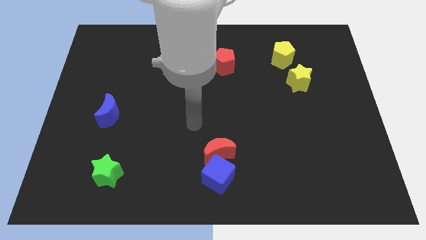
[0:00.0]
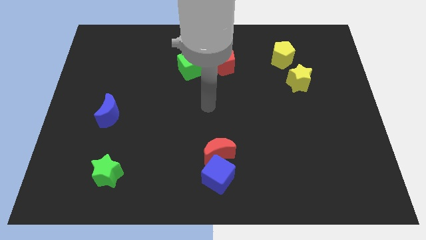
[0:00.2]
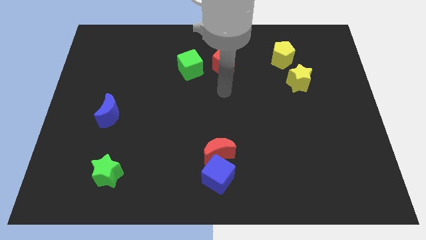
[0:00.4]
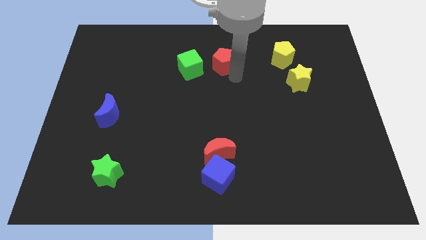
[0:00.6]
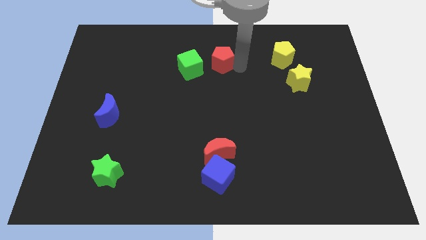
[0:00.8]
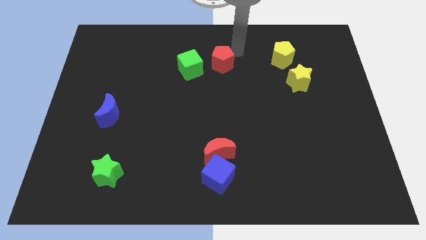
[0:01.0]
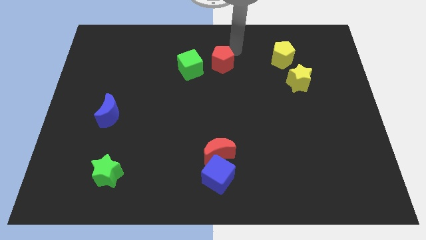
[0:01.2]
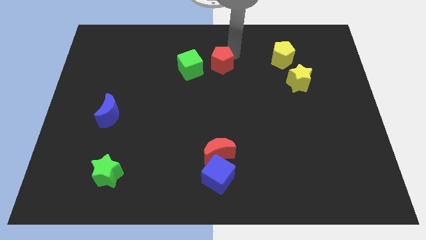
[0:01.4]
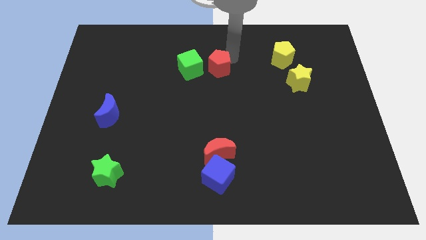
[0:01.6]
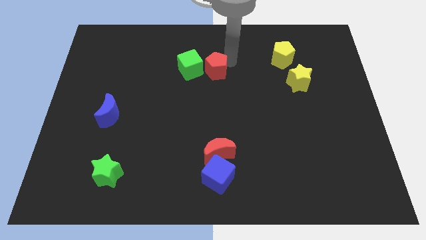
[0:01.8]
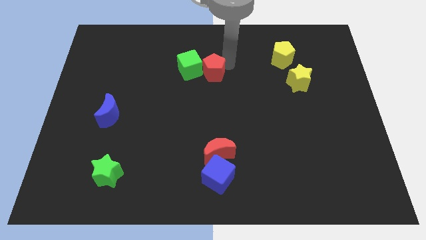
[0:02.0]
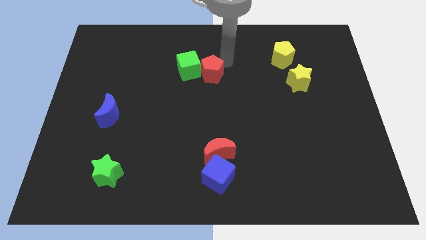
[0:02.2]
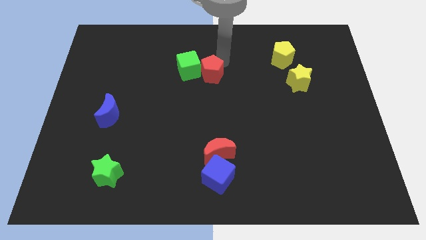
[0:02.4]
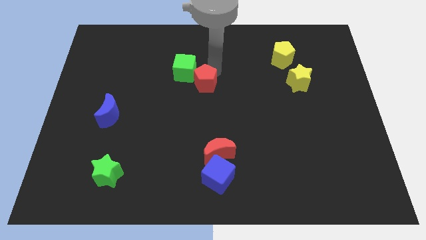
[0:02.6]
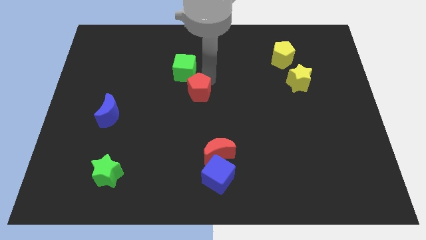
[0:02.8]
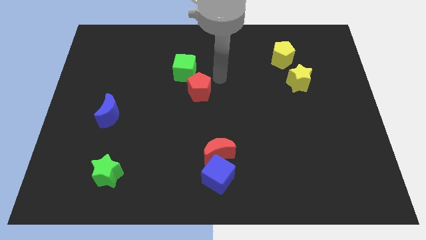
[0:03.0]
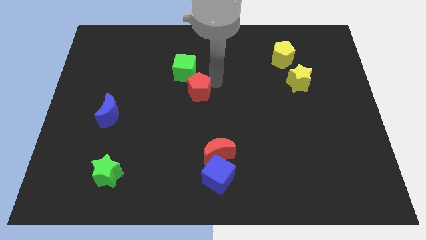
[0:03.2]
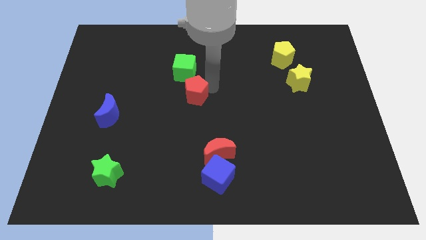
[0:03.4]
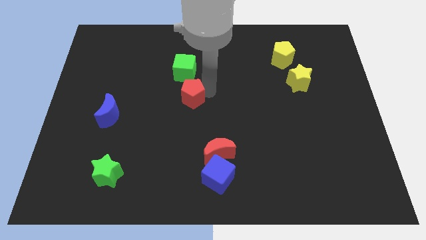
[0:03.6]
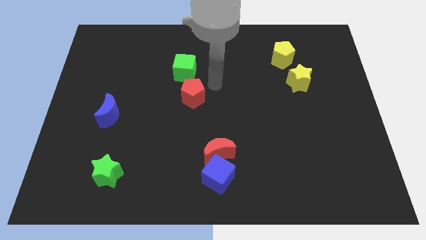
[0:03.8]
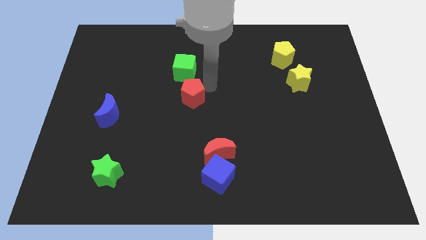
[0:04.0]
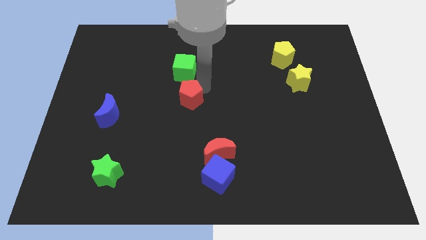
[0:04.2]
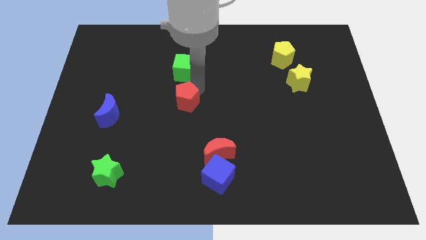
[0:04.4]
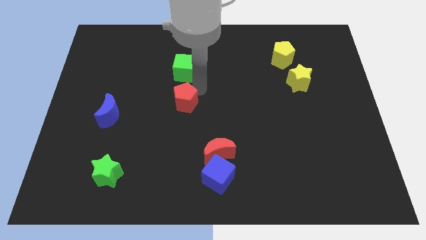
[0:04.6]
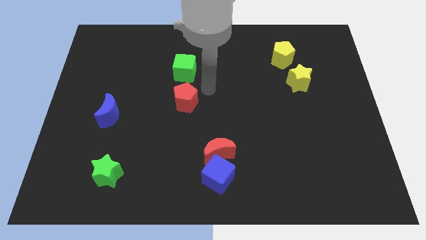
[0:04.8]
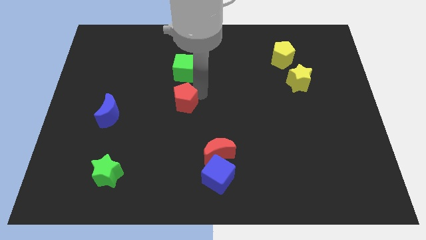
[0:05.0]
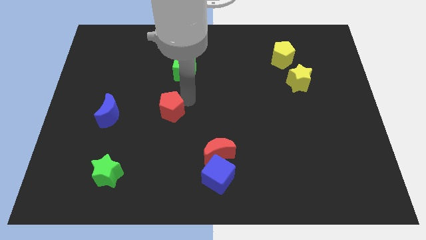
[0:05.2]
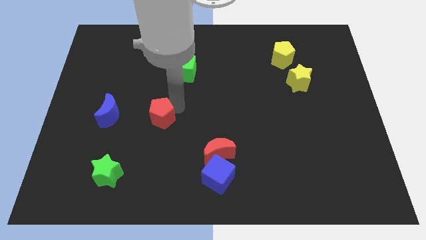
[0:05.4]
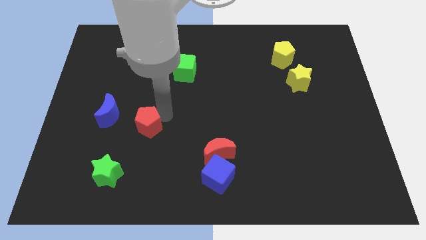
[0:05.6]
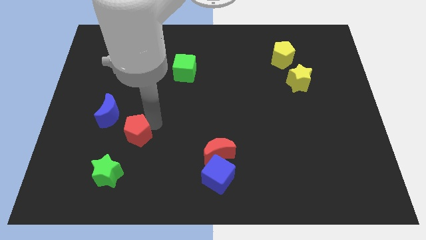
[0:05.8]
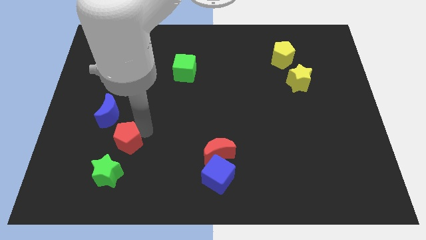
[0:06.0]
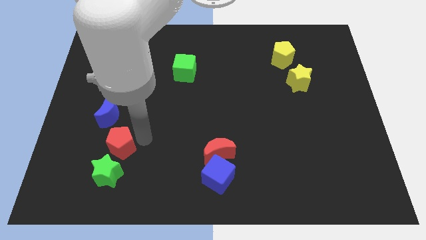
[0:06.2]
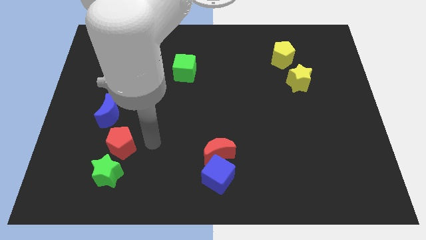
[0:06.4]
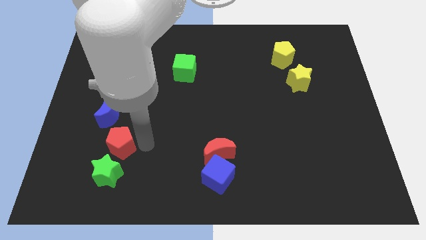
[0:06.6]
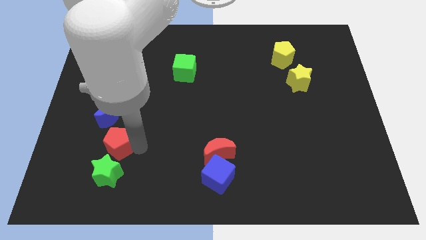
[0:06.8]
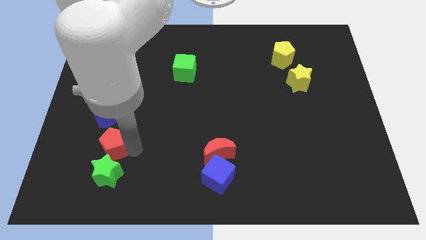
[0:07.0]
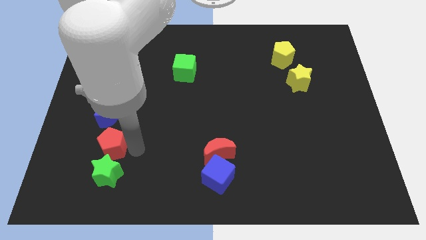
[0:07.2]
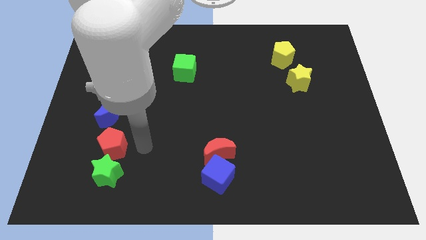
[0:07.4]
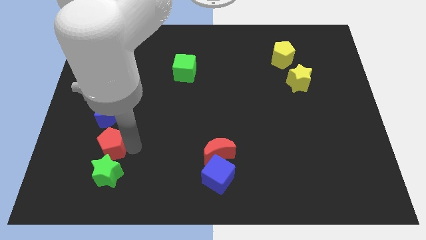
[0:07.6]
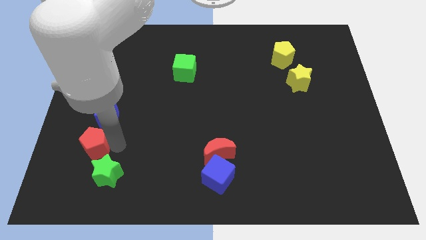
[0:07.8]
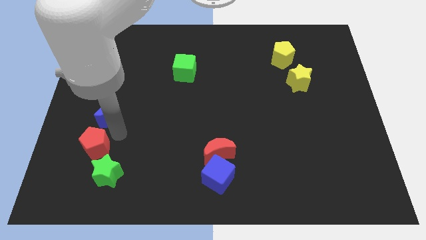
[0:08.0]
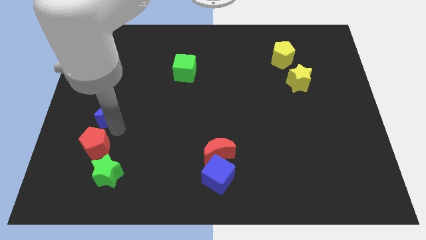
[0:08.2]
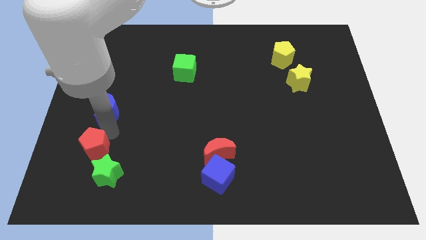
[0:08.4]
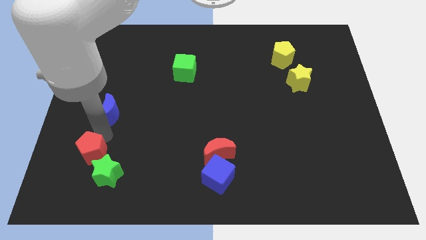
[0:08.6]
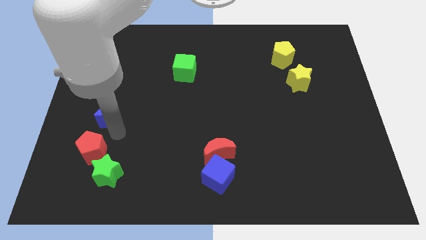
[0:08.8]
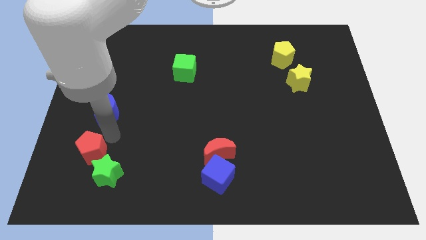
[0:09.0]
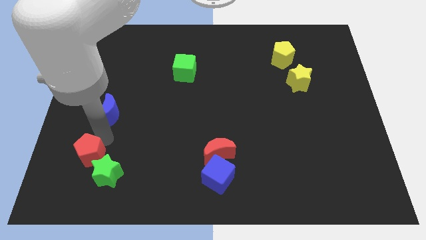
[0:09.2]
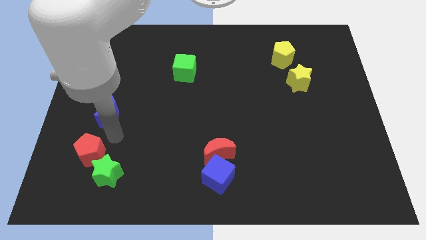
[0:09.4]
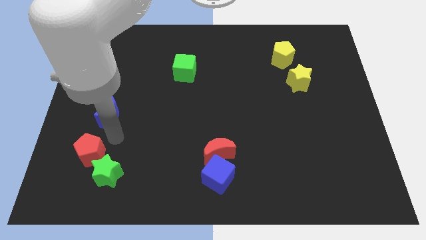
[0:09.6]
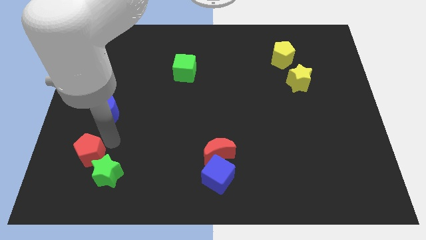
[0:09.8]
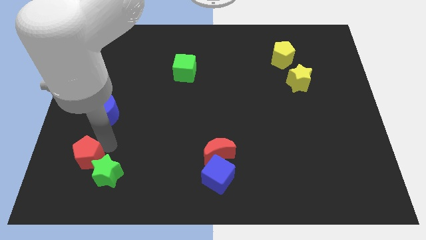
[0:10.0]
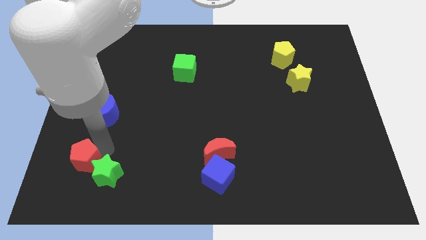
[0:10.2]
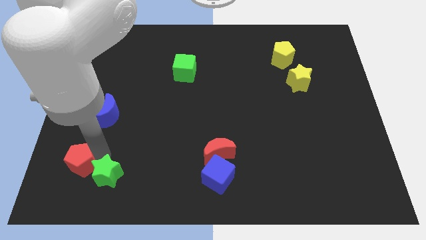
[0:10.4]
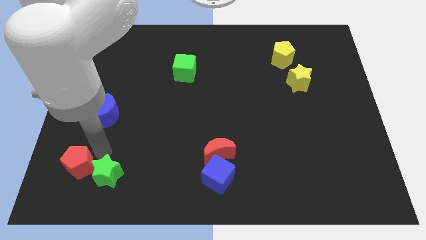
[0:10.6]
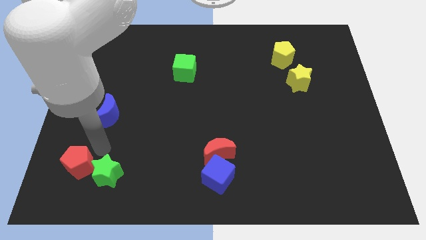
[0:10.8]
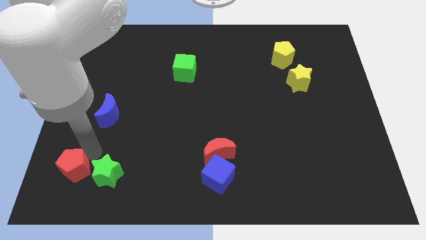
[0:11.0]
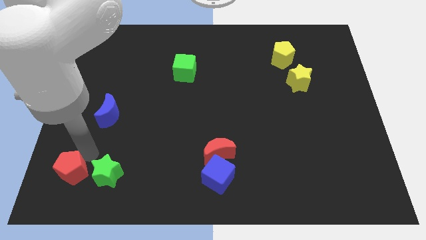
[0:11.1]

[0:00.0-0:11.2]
put the red pentagon to the lower left corner

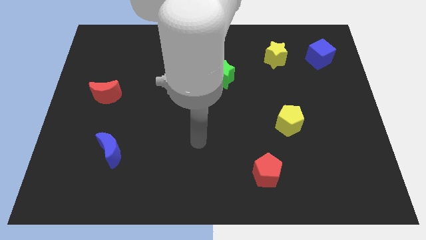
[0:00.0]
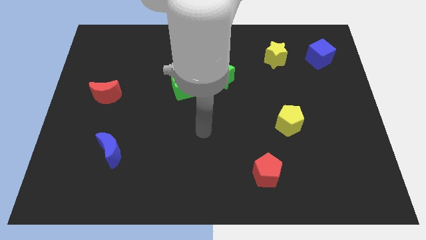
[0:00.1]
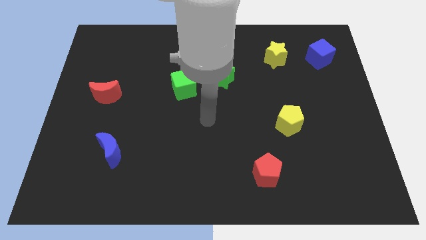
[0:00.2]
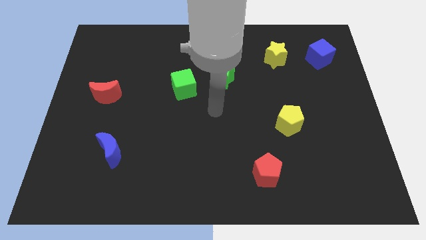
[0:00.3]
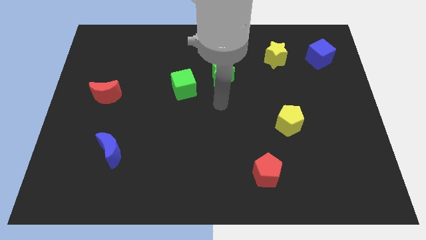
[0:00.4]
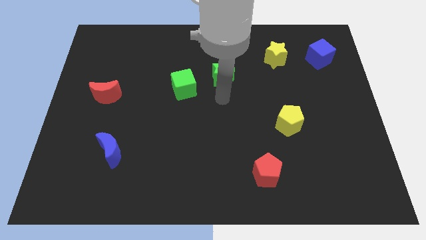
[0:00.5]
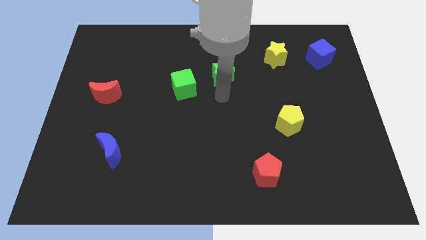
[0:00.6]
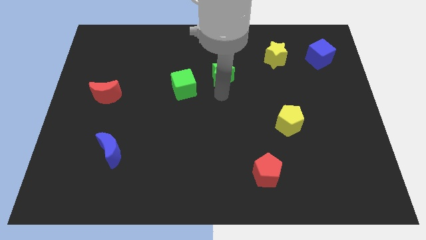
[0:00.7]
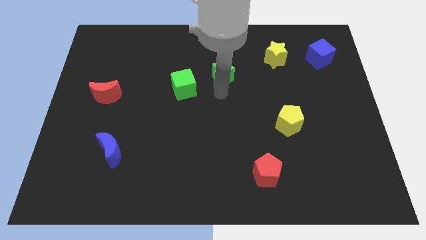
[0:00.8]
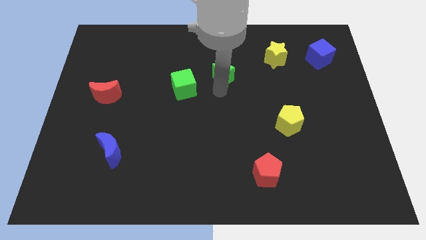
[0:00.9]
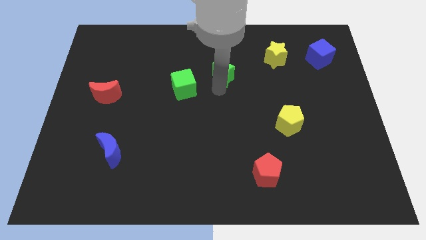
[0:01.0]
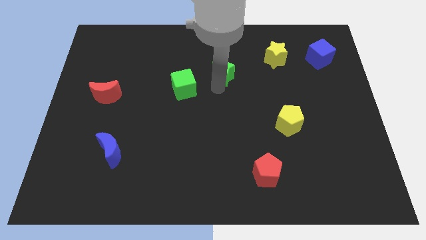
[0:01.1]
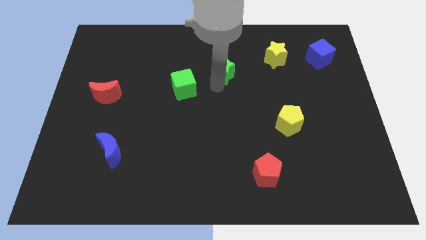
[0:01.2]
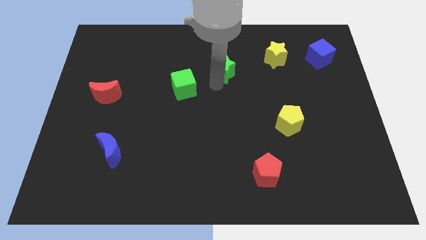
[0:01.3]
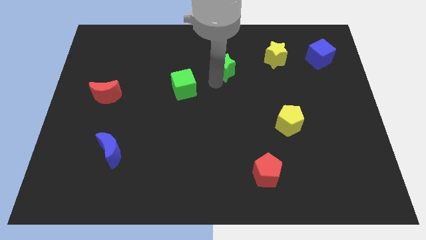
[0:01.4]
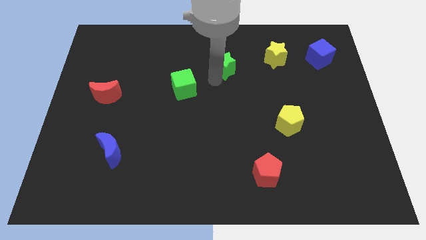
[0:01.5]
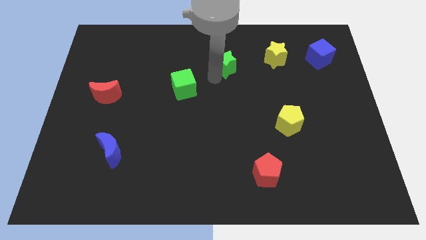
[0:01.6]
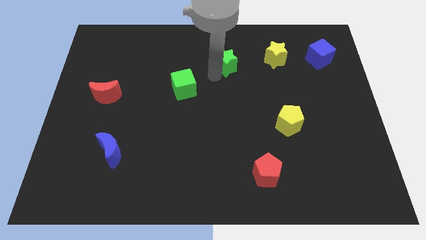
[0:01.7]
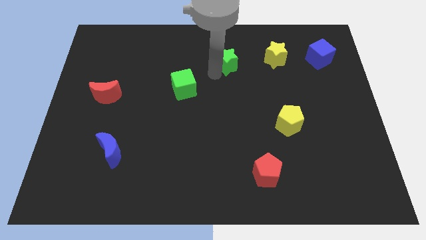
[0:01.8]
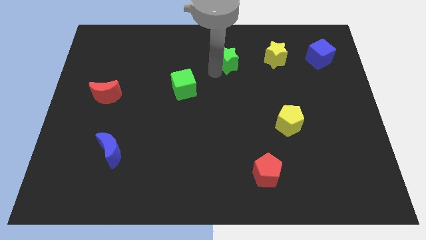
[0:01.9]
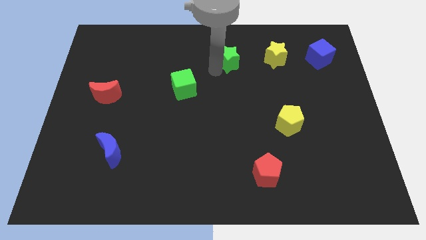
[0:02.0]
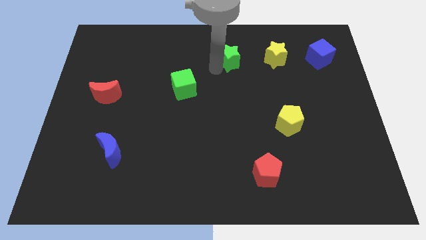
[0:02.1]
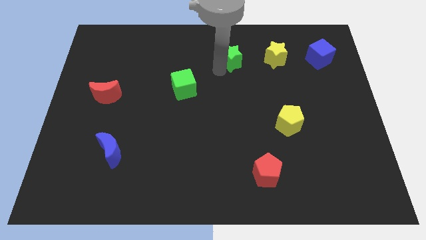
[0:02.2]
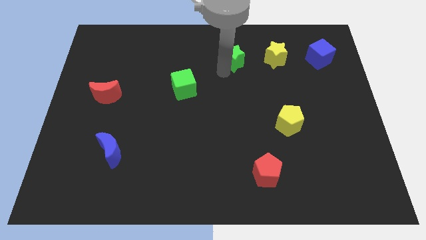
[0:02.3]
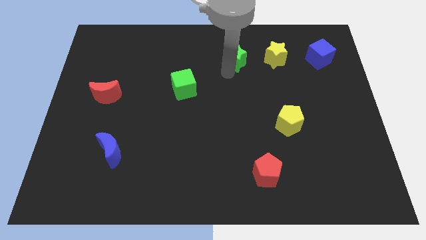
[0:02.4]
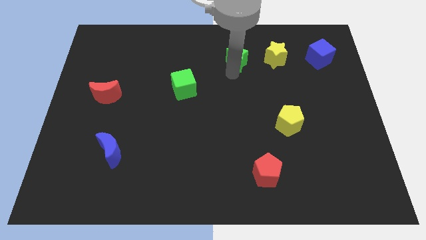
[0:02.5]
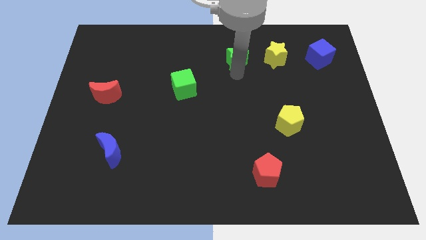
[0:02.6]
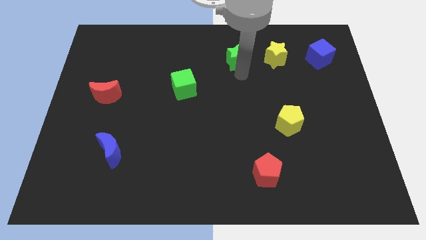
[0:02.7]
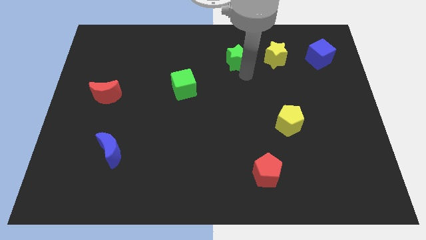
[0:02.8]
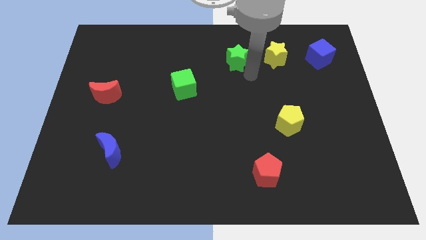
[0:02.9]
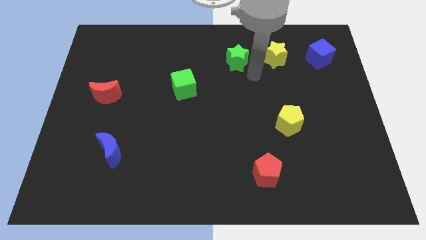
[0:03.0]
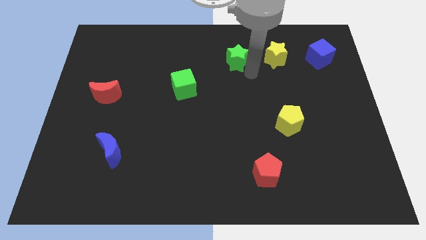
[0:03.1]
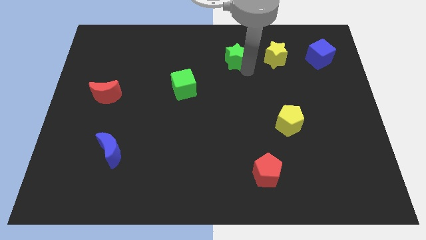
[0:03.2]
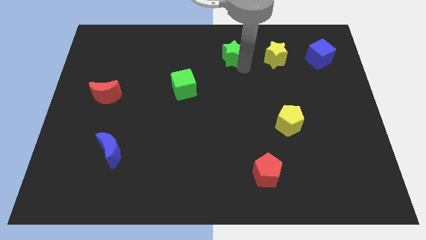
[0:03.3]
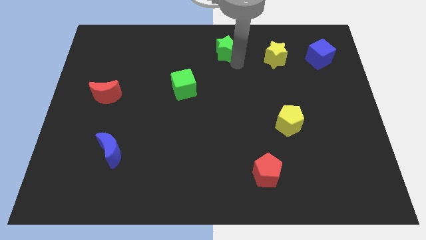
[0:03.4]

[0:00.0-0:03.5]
put the green star to the top
